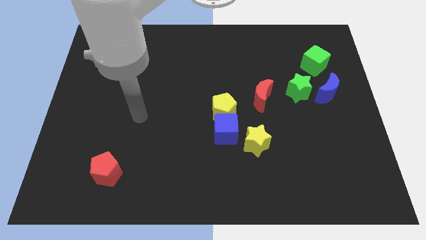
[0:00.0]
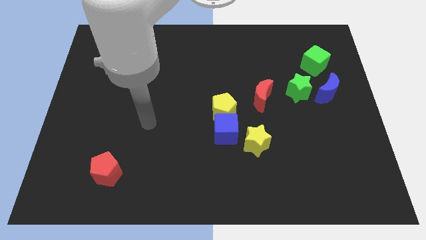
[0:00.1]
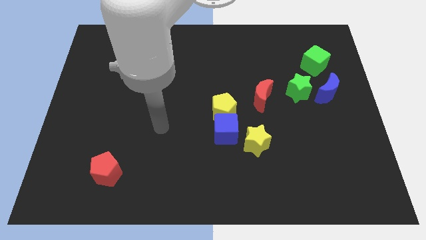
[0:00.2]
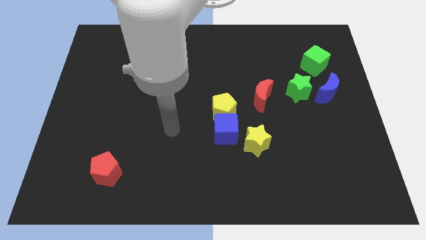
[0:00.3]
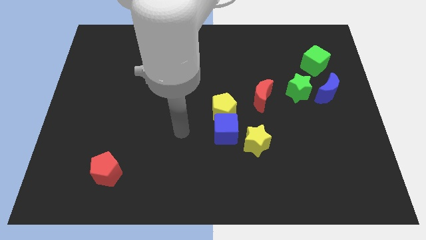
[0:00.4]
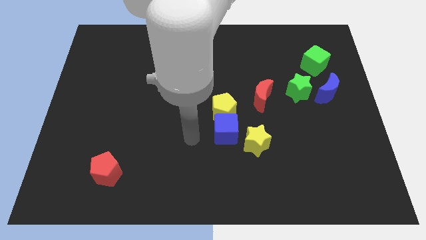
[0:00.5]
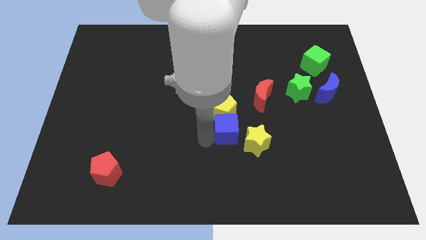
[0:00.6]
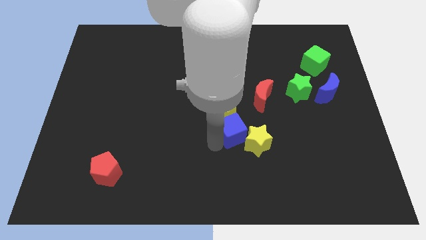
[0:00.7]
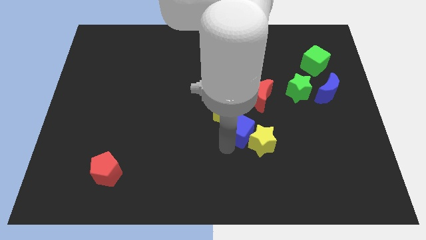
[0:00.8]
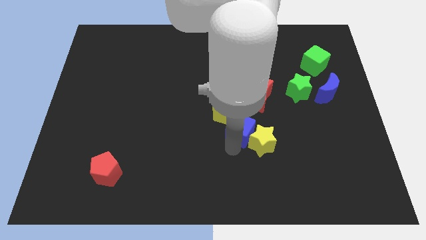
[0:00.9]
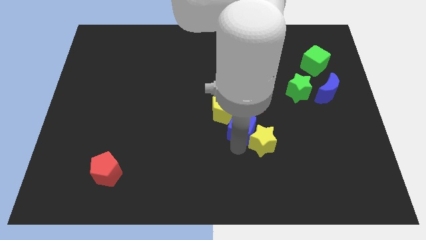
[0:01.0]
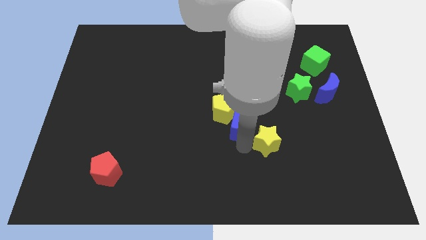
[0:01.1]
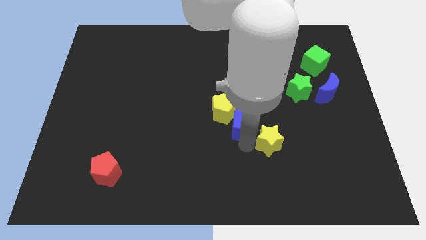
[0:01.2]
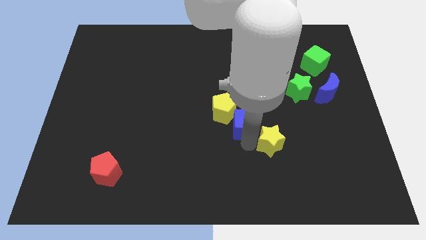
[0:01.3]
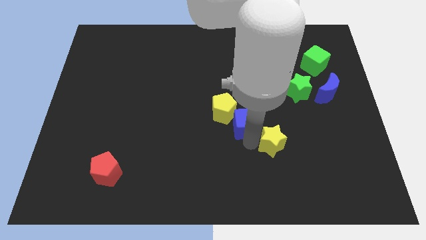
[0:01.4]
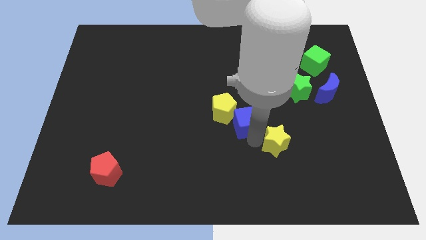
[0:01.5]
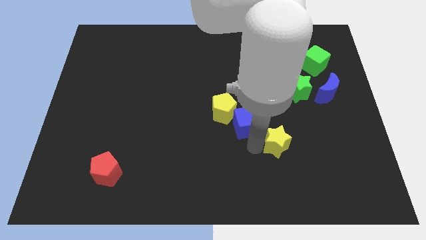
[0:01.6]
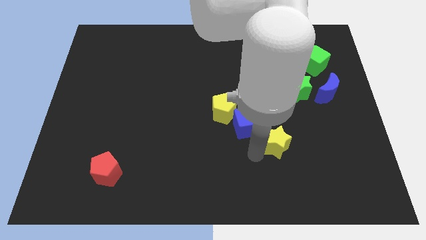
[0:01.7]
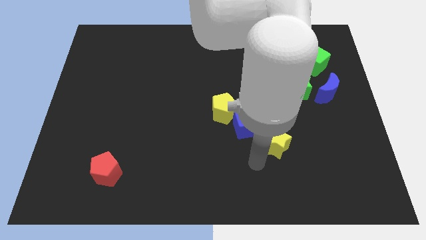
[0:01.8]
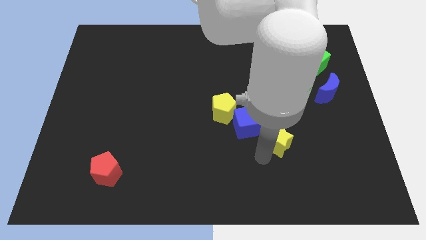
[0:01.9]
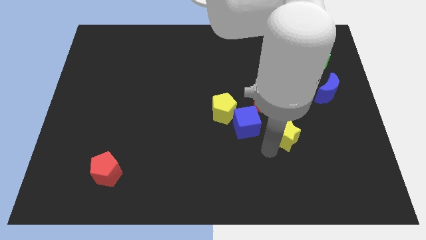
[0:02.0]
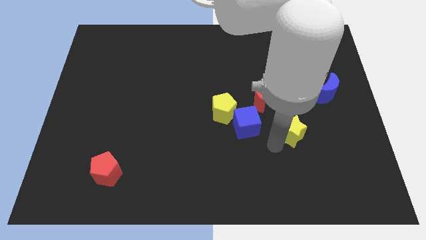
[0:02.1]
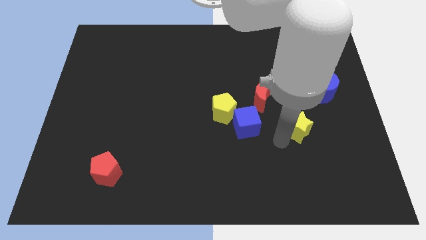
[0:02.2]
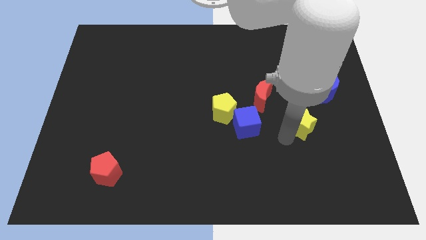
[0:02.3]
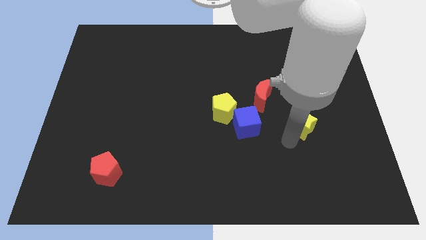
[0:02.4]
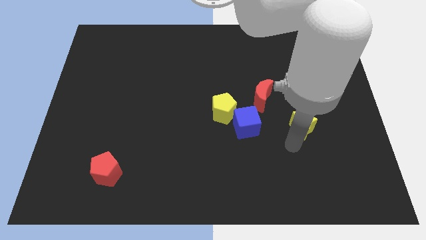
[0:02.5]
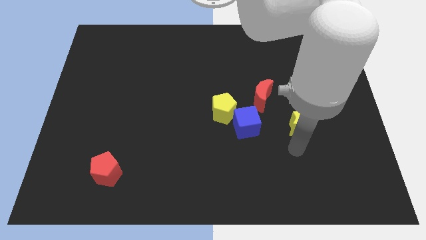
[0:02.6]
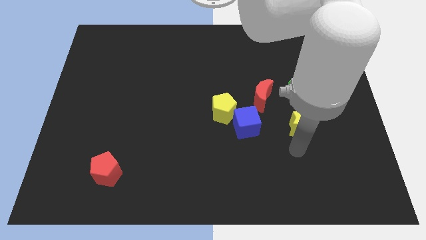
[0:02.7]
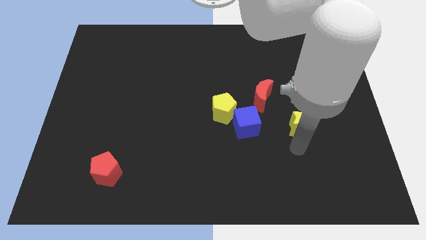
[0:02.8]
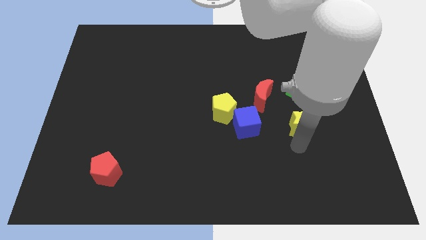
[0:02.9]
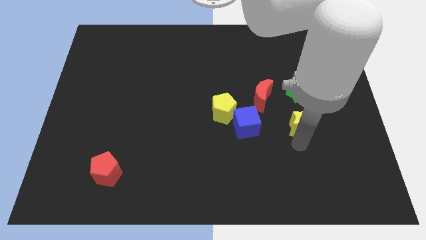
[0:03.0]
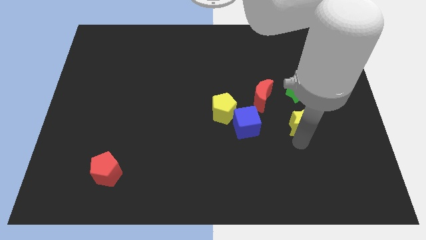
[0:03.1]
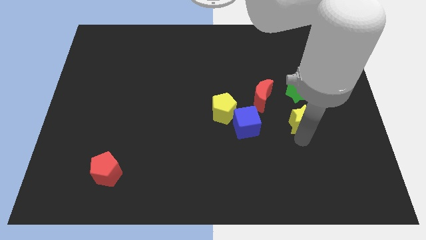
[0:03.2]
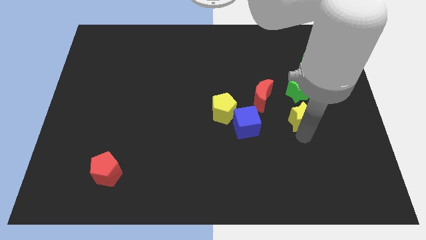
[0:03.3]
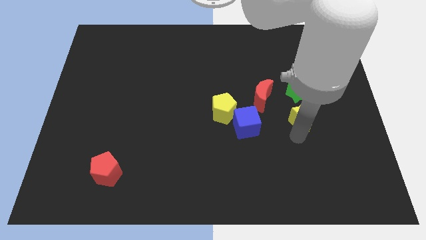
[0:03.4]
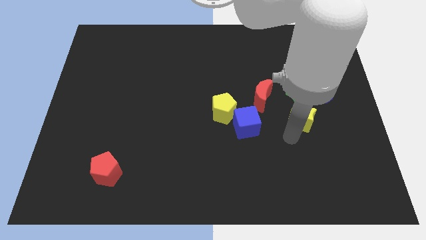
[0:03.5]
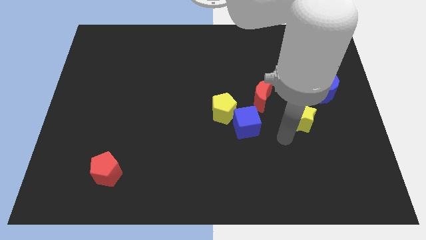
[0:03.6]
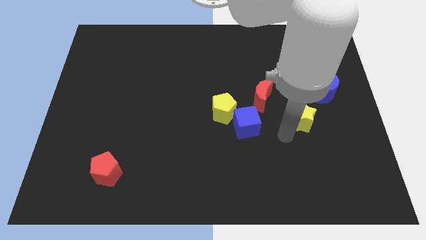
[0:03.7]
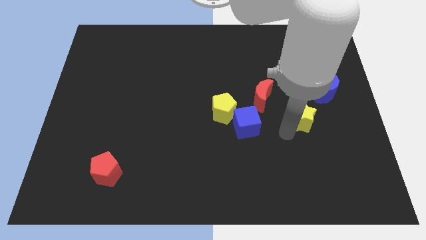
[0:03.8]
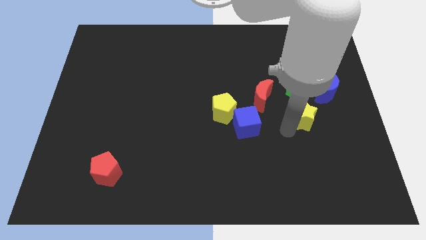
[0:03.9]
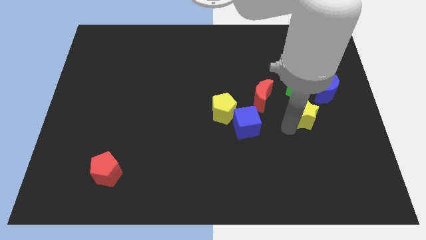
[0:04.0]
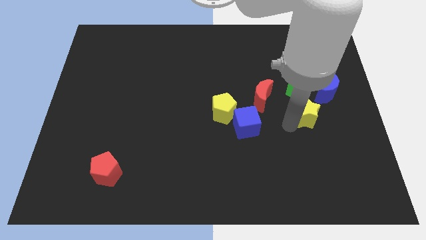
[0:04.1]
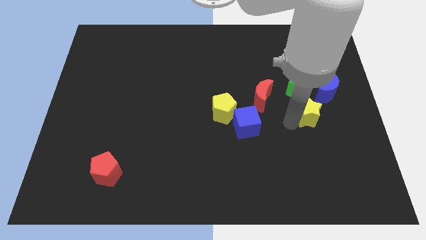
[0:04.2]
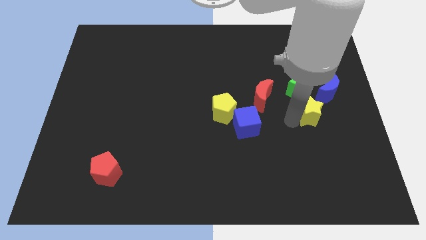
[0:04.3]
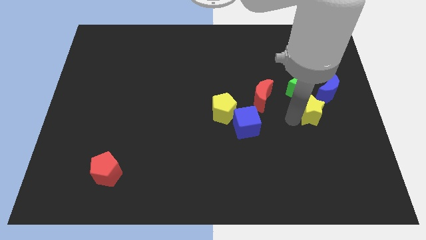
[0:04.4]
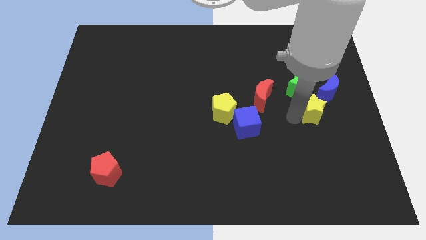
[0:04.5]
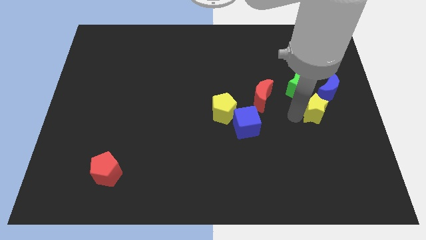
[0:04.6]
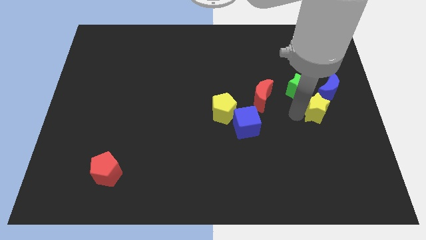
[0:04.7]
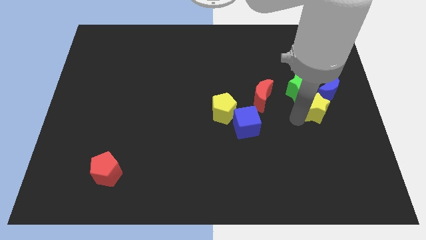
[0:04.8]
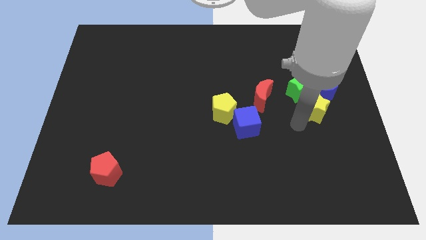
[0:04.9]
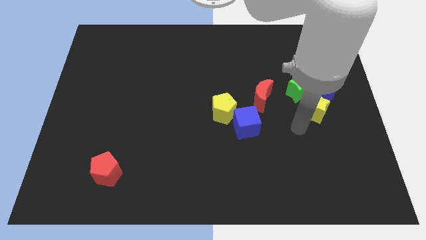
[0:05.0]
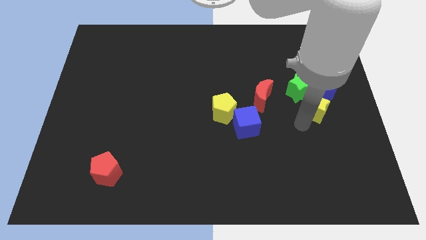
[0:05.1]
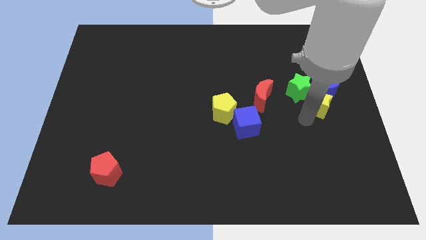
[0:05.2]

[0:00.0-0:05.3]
put the yellow star next to the blue moon

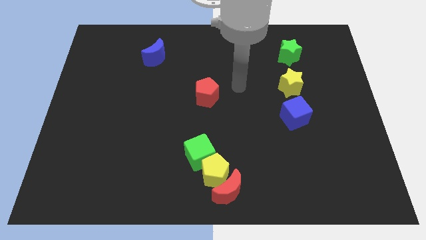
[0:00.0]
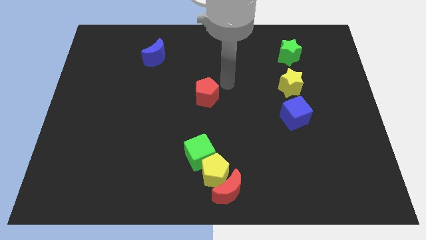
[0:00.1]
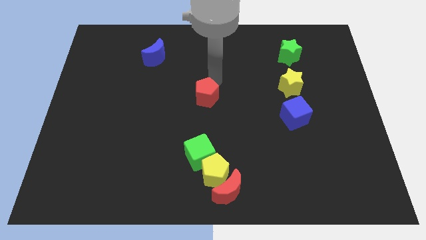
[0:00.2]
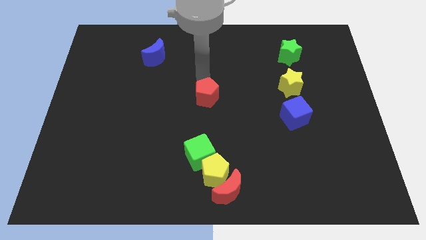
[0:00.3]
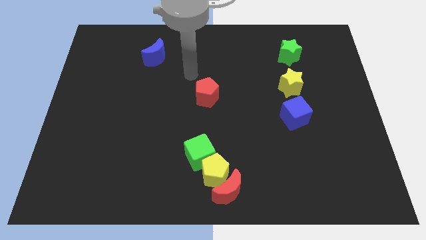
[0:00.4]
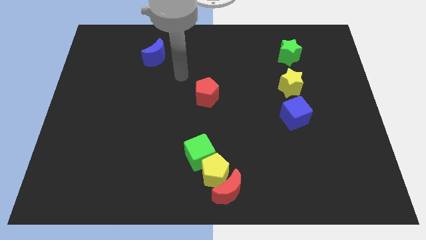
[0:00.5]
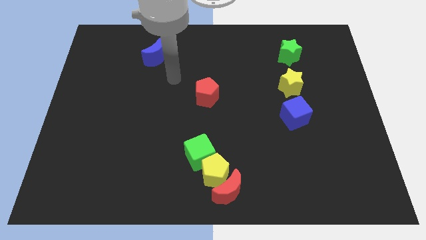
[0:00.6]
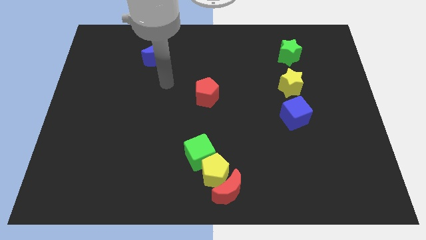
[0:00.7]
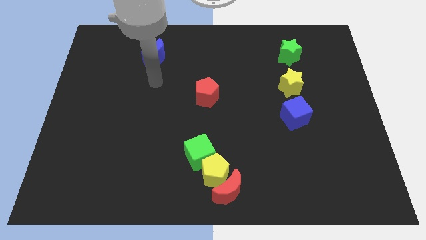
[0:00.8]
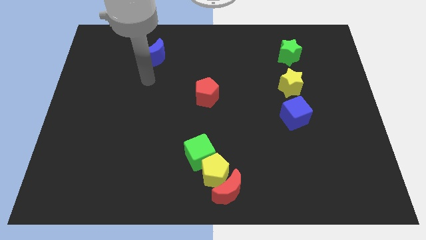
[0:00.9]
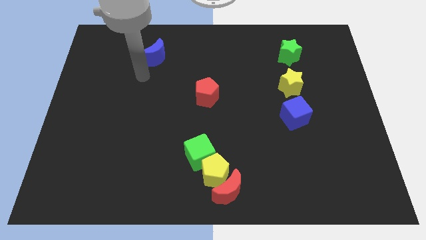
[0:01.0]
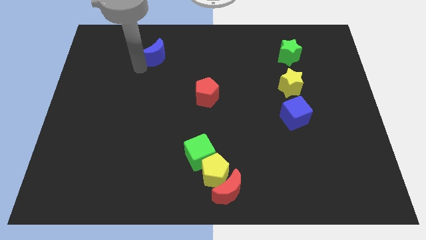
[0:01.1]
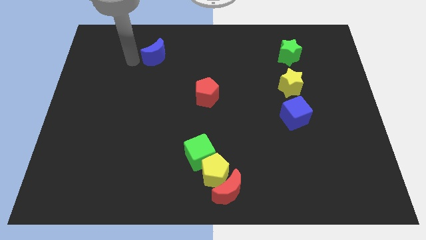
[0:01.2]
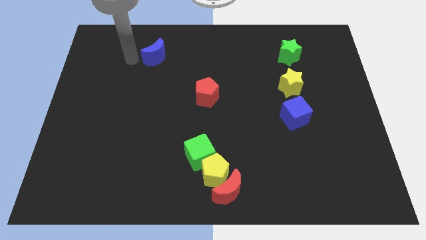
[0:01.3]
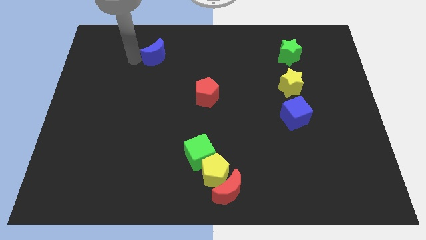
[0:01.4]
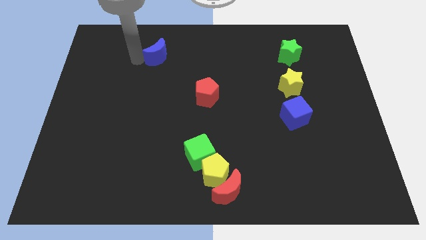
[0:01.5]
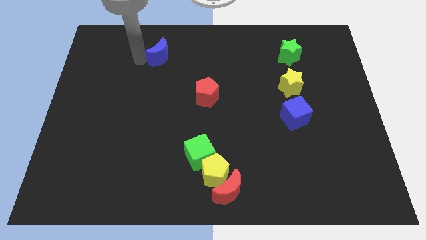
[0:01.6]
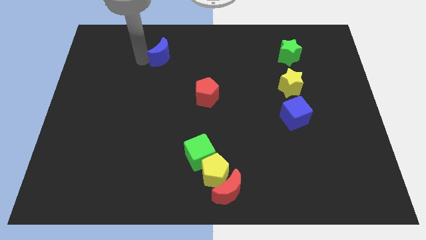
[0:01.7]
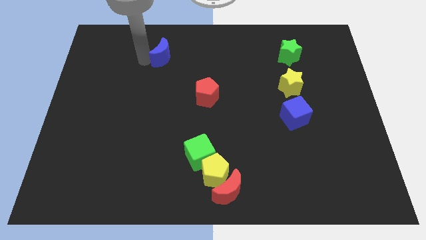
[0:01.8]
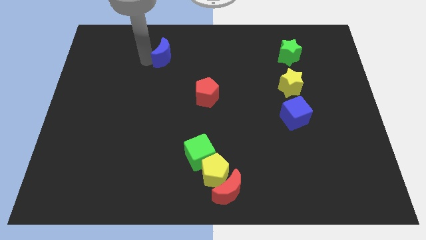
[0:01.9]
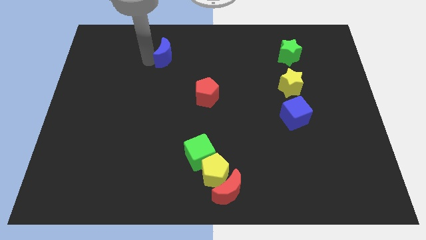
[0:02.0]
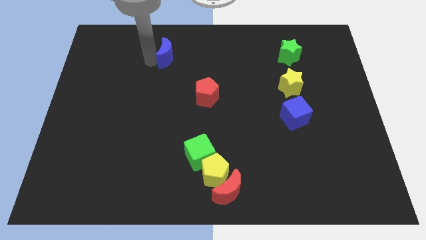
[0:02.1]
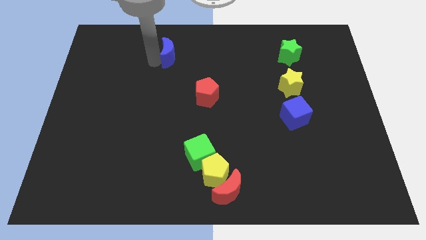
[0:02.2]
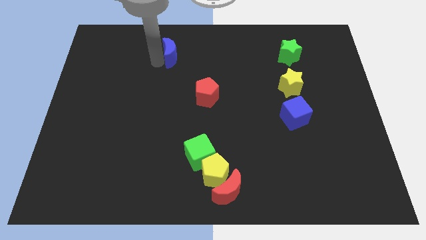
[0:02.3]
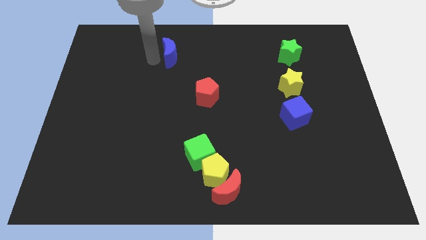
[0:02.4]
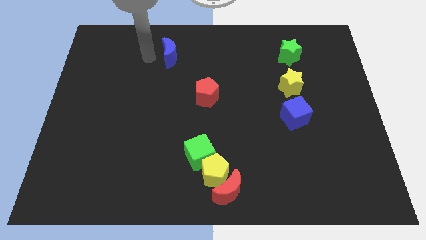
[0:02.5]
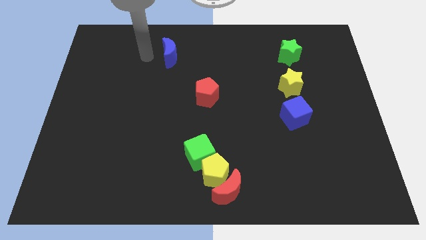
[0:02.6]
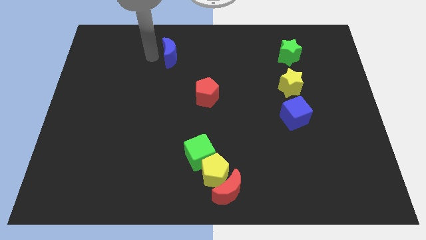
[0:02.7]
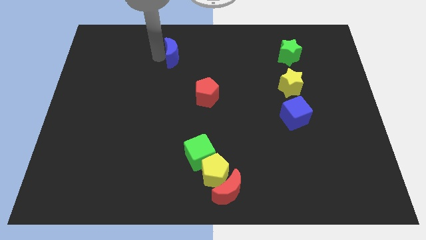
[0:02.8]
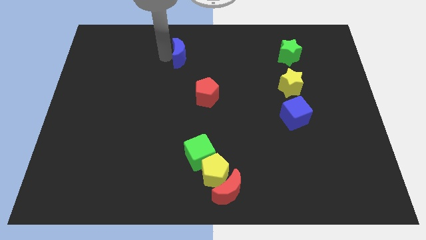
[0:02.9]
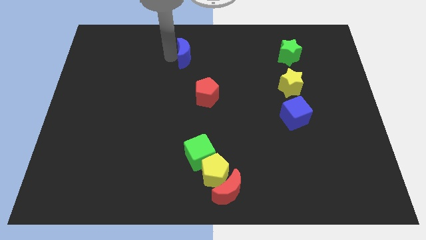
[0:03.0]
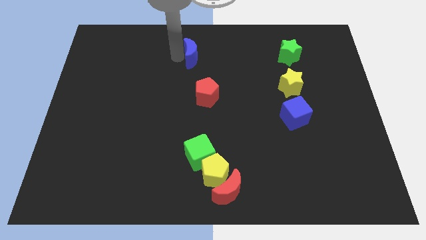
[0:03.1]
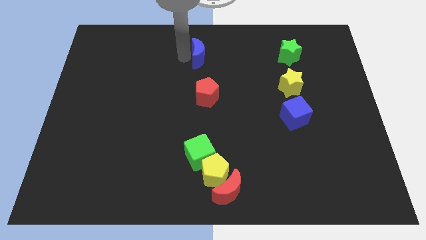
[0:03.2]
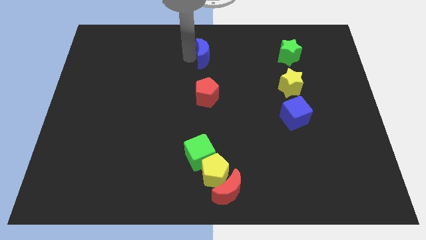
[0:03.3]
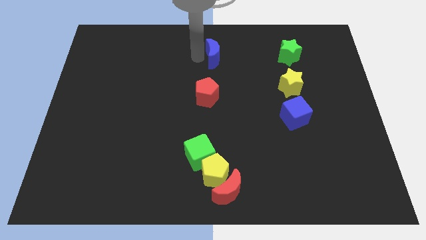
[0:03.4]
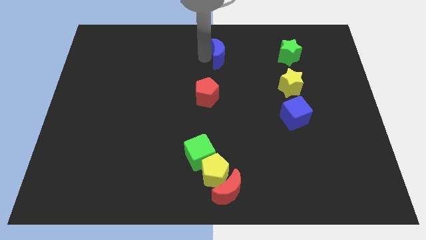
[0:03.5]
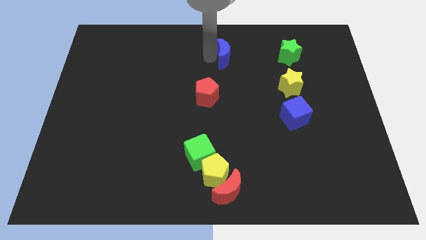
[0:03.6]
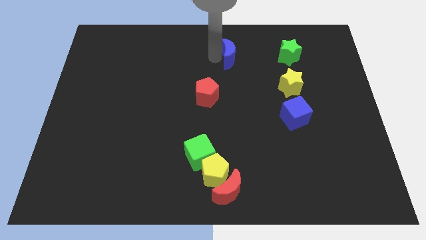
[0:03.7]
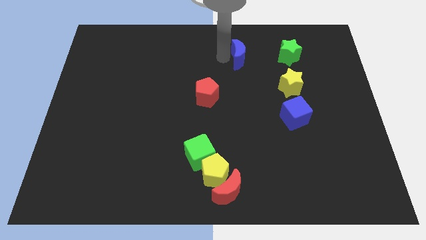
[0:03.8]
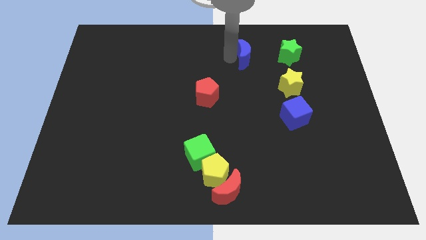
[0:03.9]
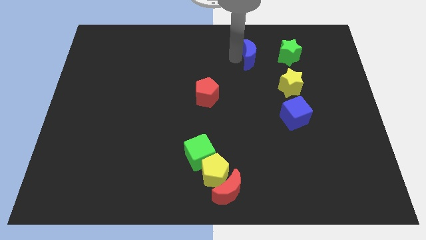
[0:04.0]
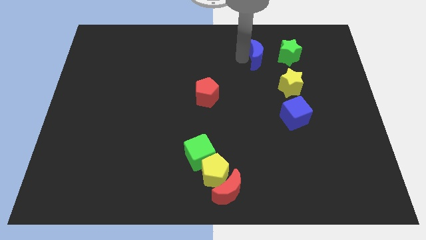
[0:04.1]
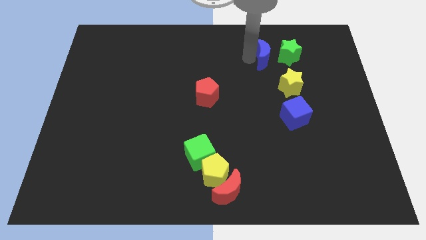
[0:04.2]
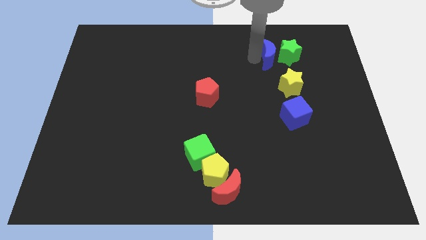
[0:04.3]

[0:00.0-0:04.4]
push the blue moon to the green star
